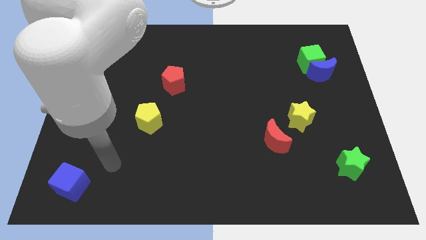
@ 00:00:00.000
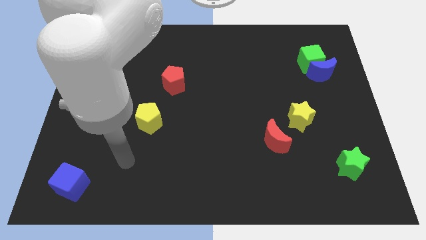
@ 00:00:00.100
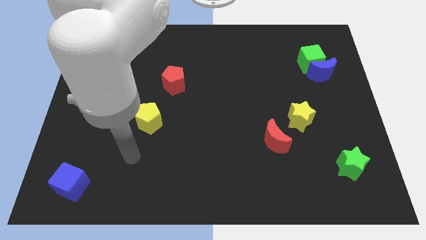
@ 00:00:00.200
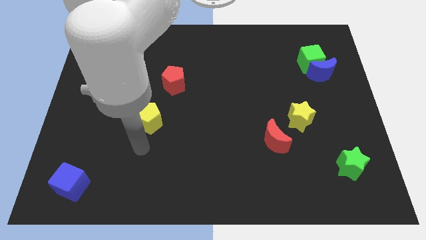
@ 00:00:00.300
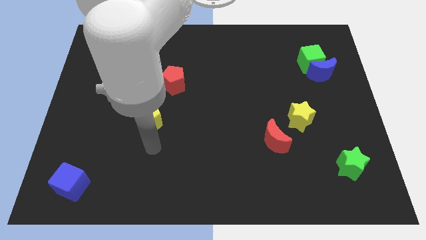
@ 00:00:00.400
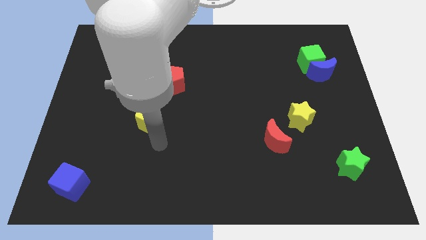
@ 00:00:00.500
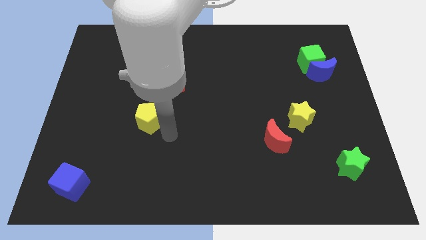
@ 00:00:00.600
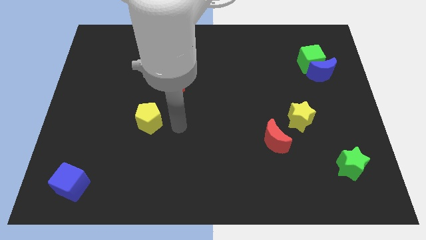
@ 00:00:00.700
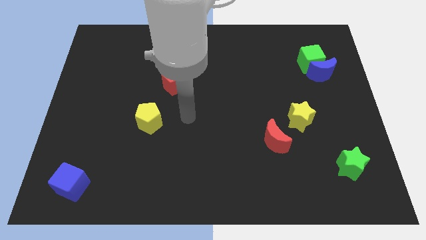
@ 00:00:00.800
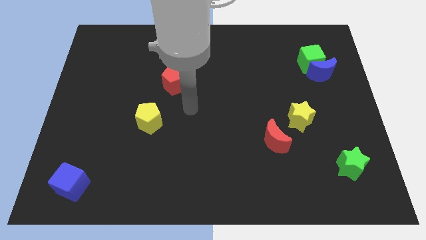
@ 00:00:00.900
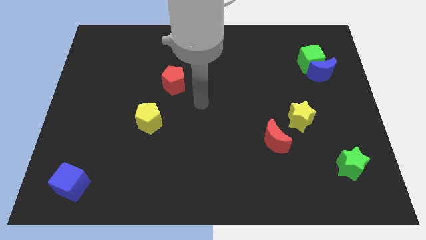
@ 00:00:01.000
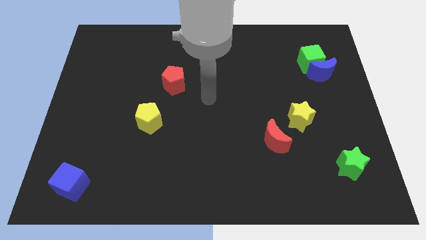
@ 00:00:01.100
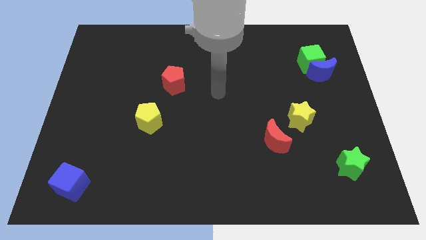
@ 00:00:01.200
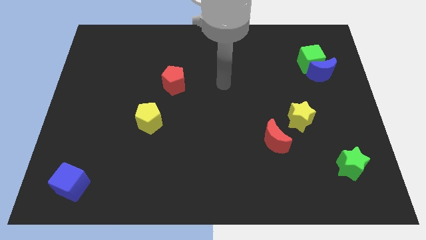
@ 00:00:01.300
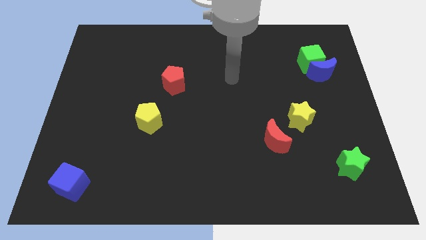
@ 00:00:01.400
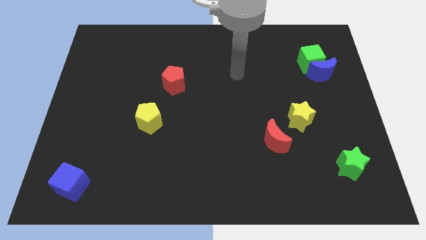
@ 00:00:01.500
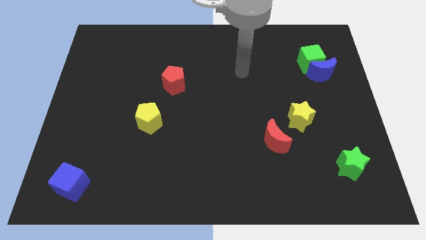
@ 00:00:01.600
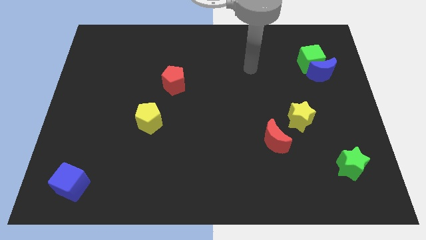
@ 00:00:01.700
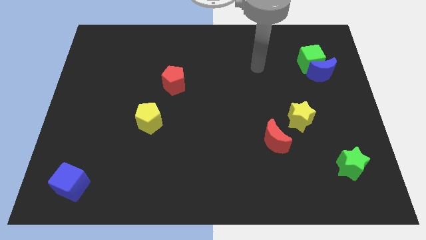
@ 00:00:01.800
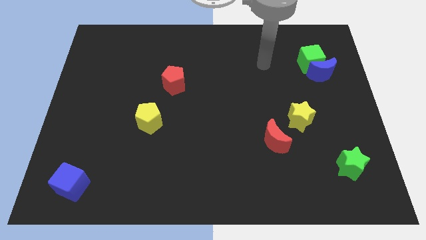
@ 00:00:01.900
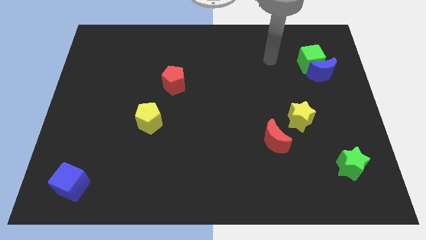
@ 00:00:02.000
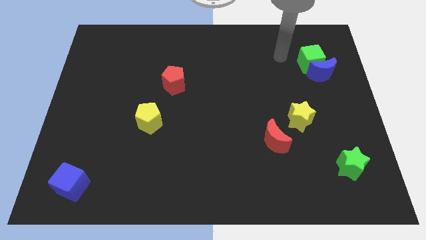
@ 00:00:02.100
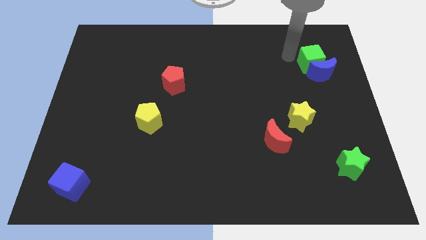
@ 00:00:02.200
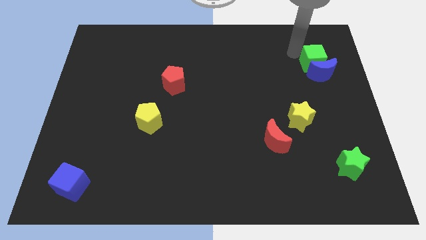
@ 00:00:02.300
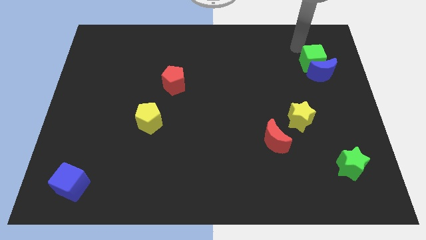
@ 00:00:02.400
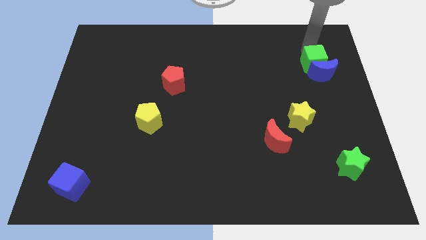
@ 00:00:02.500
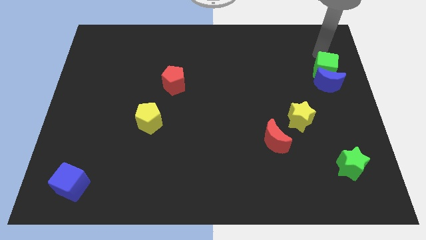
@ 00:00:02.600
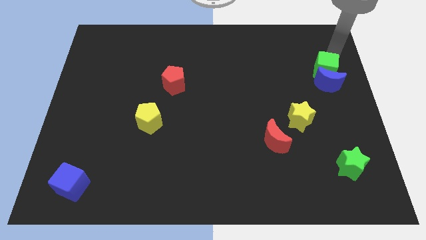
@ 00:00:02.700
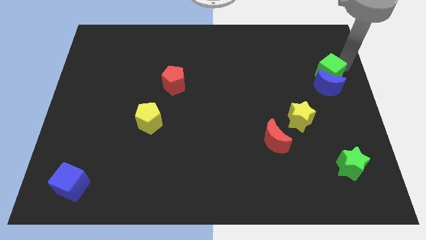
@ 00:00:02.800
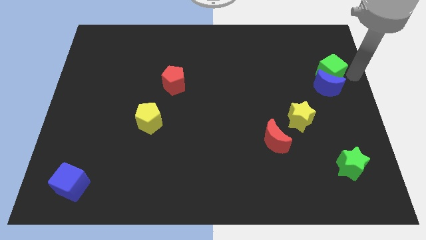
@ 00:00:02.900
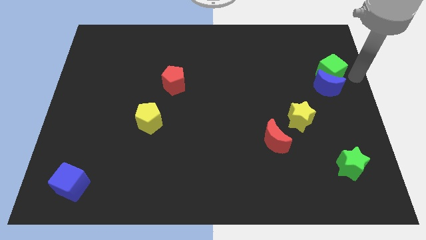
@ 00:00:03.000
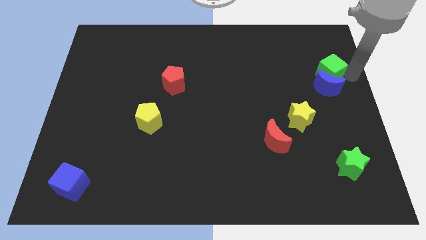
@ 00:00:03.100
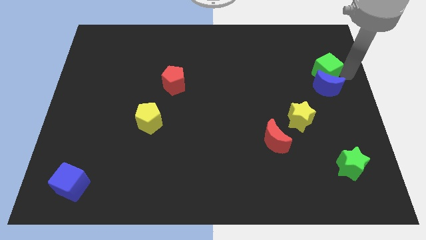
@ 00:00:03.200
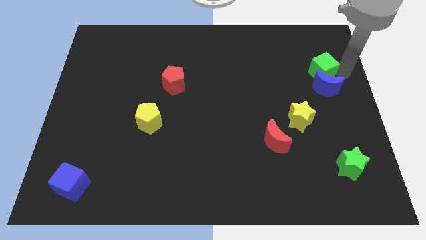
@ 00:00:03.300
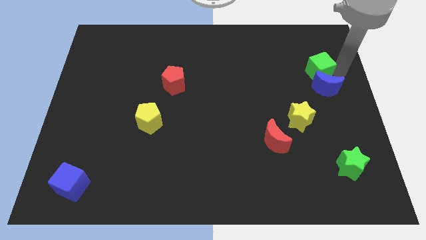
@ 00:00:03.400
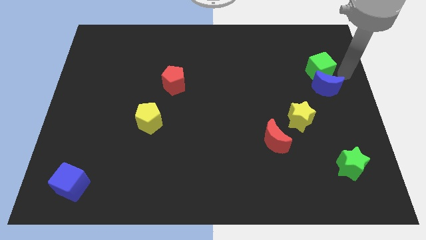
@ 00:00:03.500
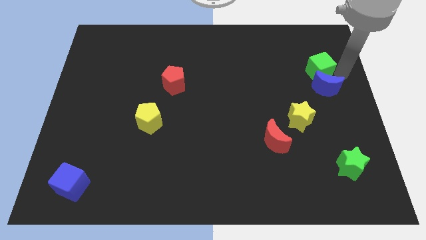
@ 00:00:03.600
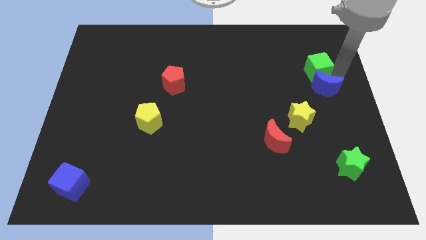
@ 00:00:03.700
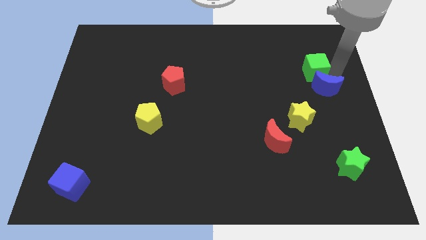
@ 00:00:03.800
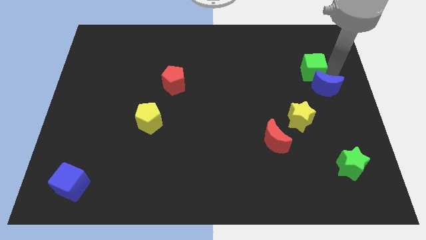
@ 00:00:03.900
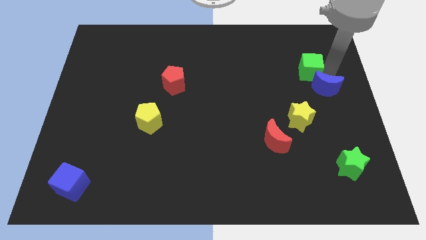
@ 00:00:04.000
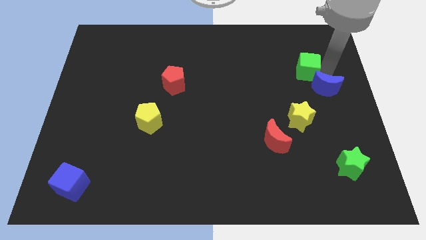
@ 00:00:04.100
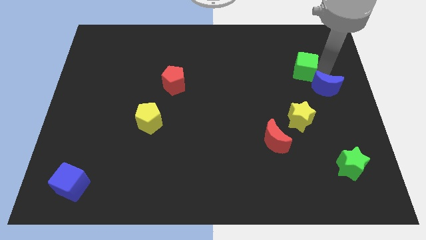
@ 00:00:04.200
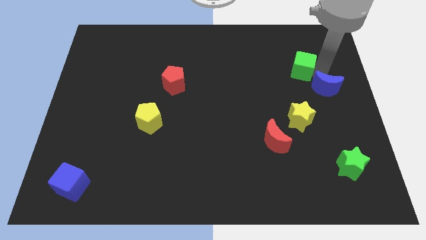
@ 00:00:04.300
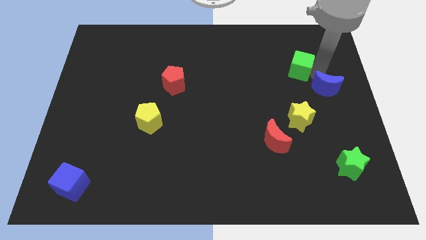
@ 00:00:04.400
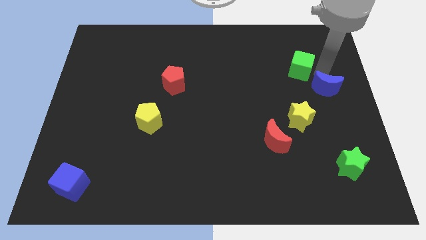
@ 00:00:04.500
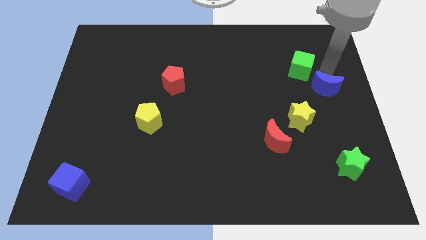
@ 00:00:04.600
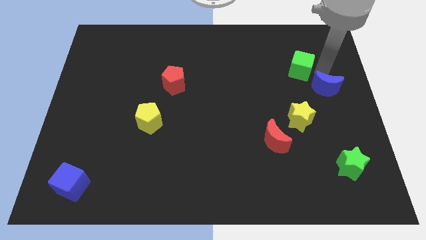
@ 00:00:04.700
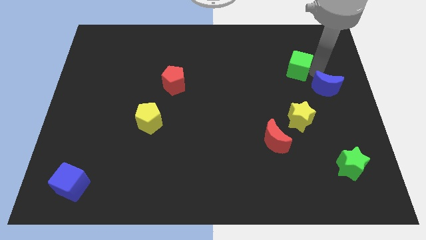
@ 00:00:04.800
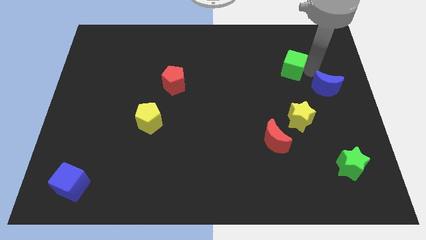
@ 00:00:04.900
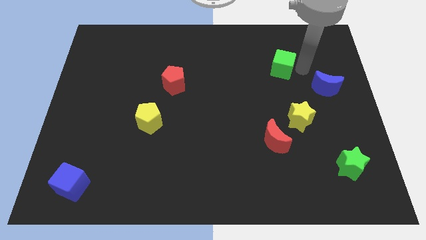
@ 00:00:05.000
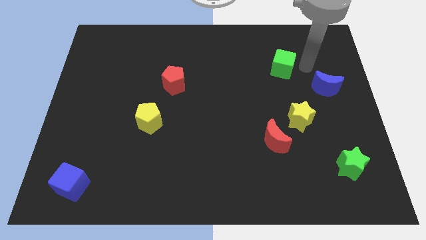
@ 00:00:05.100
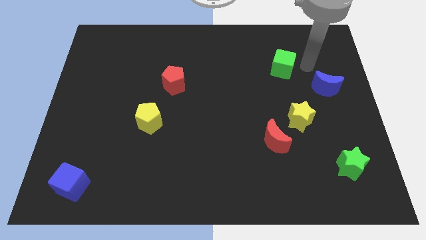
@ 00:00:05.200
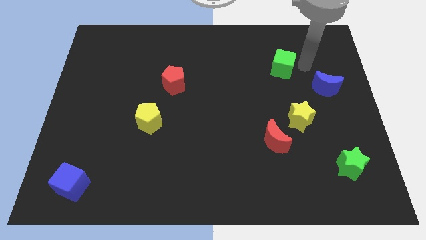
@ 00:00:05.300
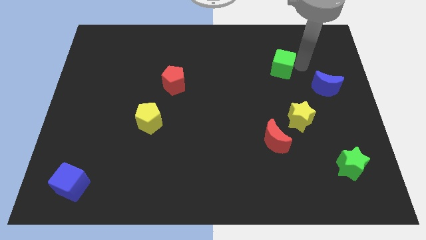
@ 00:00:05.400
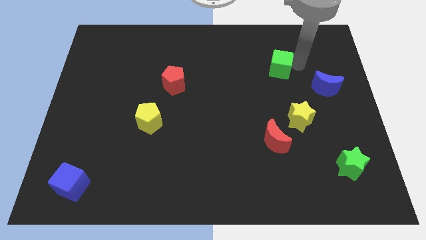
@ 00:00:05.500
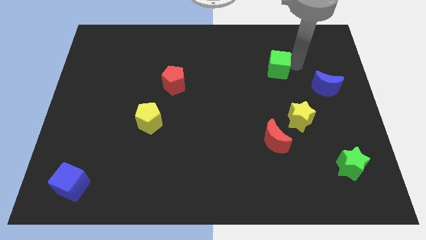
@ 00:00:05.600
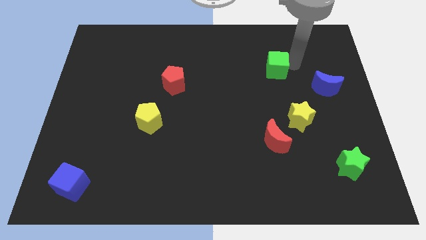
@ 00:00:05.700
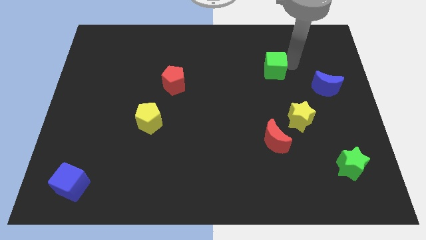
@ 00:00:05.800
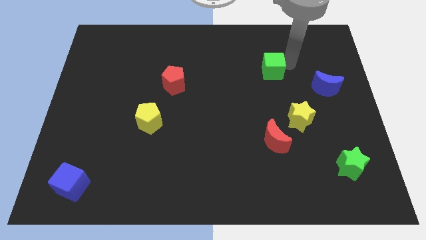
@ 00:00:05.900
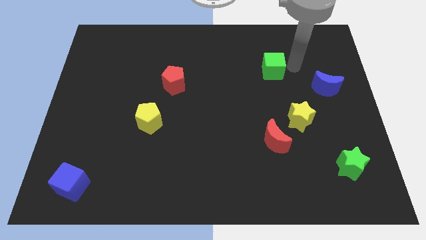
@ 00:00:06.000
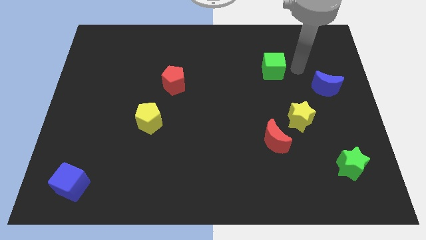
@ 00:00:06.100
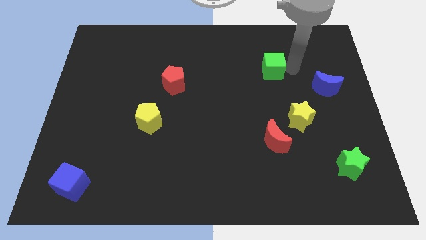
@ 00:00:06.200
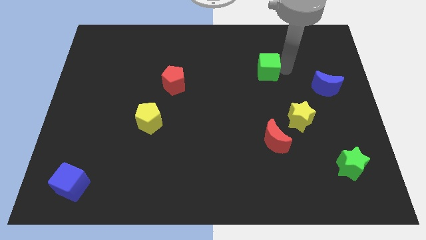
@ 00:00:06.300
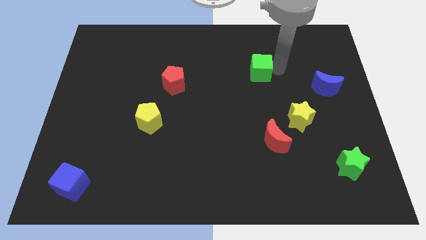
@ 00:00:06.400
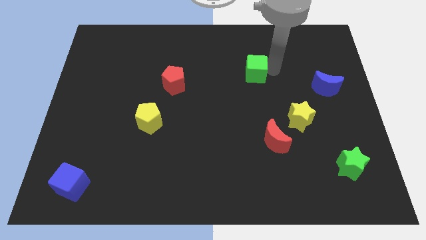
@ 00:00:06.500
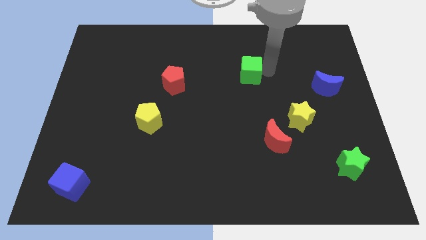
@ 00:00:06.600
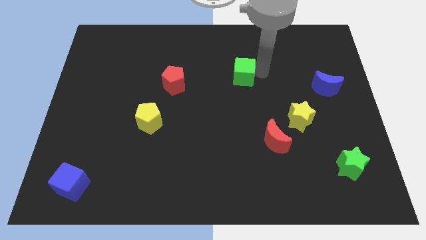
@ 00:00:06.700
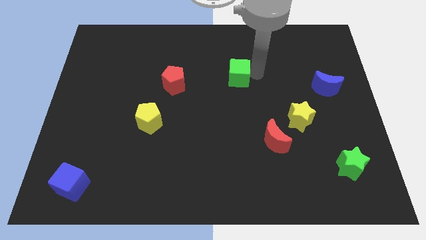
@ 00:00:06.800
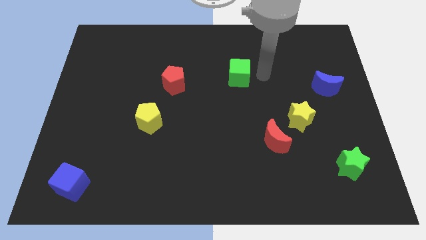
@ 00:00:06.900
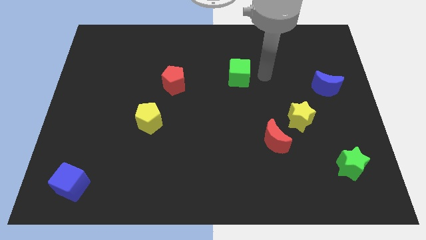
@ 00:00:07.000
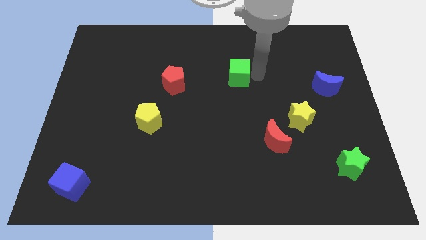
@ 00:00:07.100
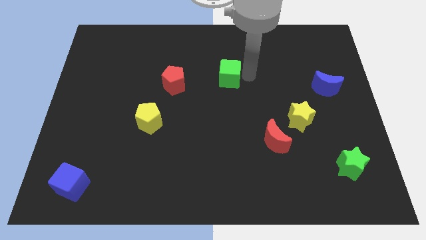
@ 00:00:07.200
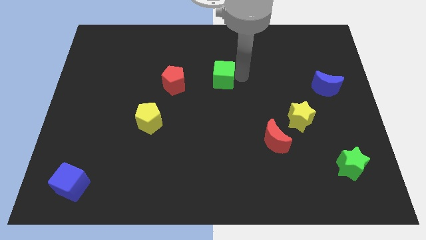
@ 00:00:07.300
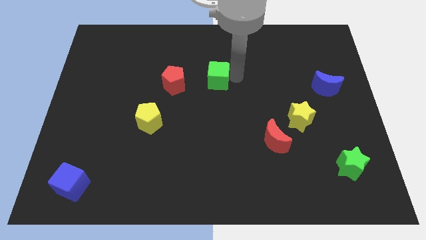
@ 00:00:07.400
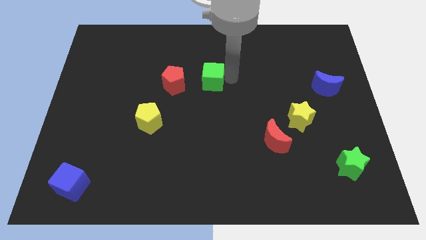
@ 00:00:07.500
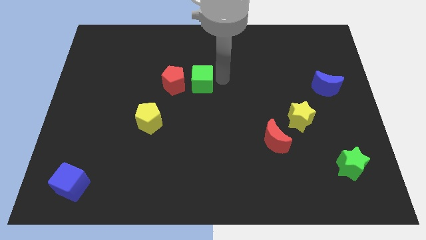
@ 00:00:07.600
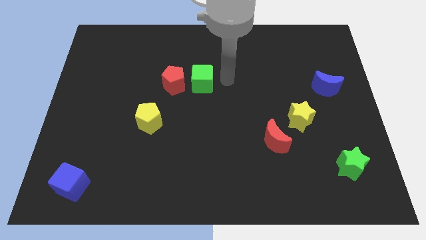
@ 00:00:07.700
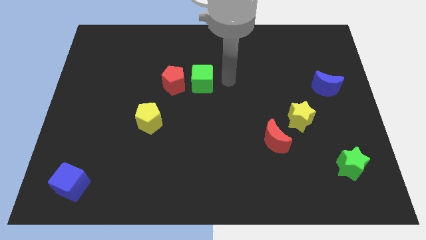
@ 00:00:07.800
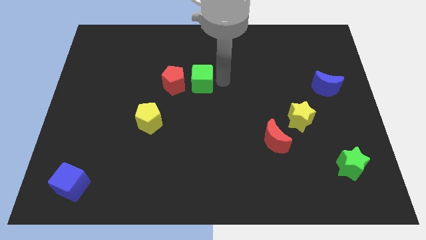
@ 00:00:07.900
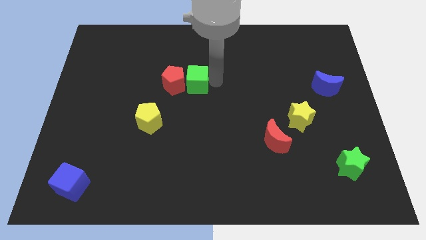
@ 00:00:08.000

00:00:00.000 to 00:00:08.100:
put the green cube towards the red pentagon
